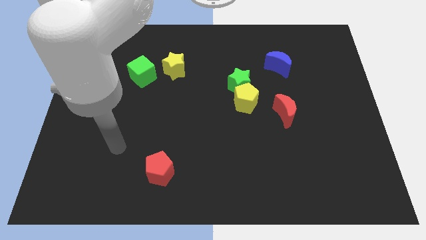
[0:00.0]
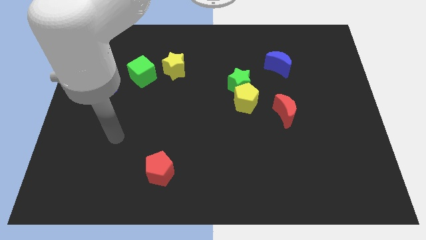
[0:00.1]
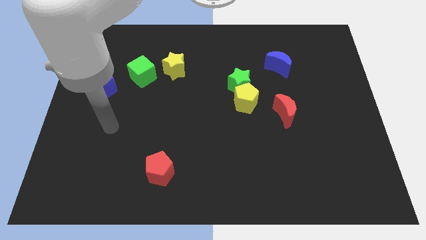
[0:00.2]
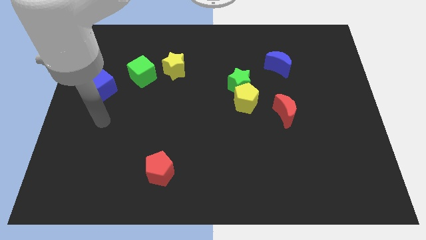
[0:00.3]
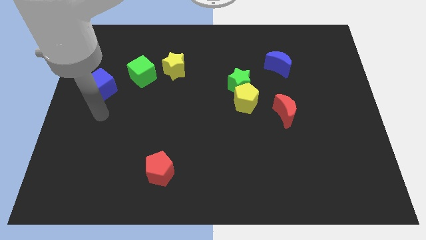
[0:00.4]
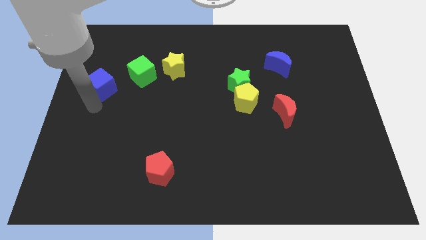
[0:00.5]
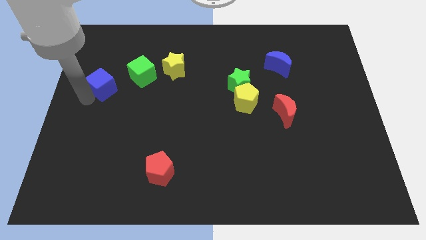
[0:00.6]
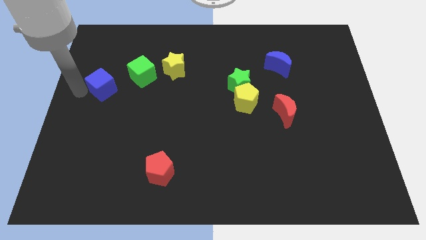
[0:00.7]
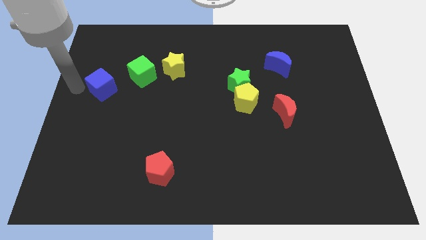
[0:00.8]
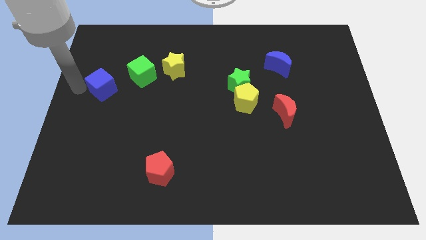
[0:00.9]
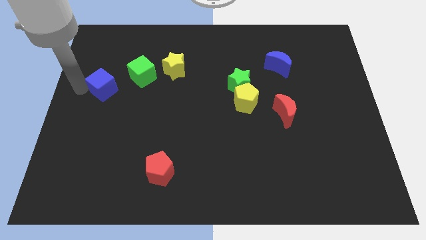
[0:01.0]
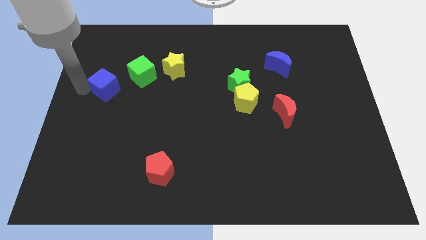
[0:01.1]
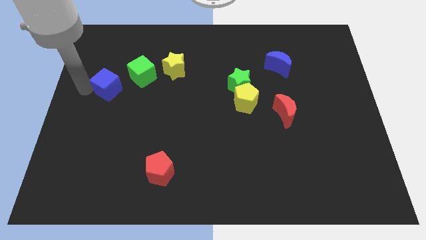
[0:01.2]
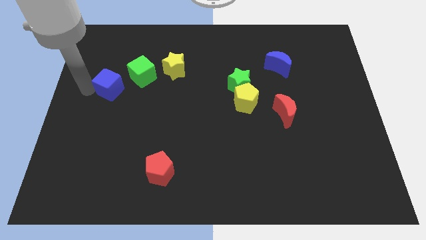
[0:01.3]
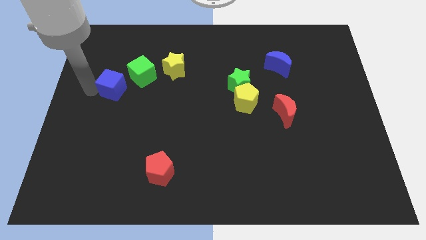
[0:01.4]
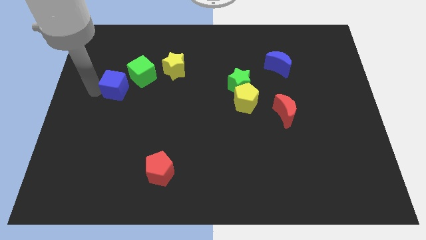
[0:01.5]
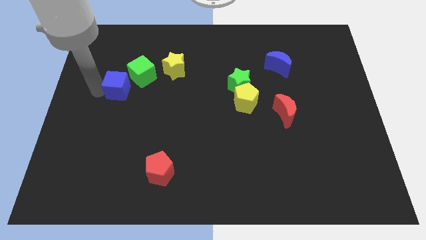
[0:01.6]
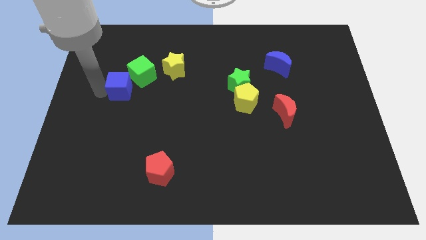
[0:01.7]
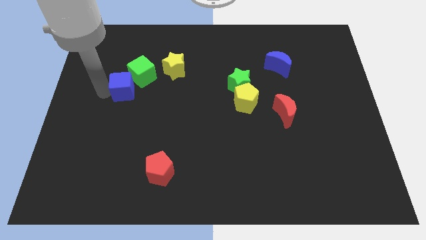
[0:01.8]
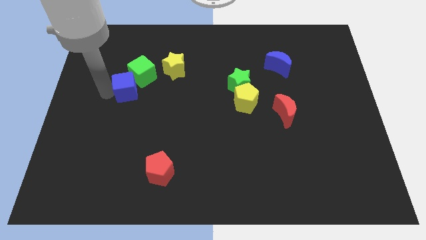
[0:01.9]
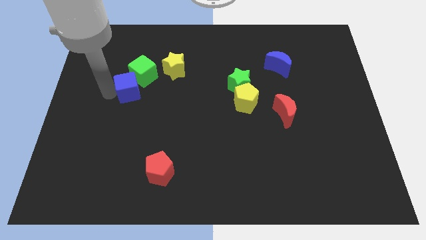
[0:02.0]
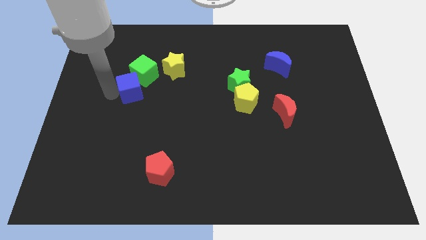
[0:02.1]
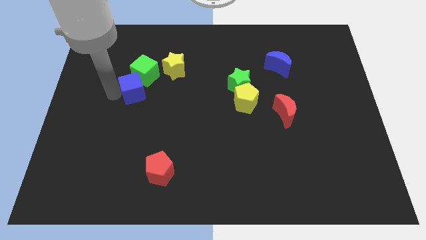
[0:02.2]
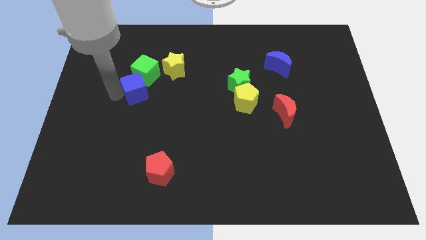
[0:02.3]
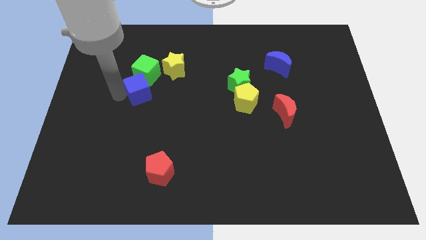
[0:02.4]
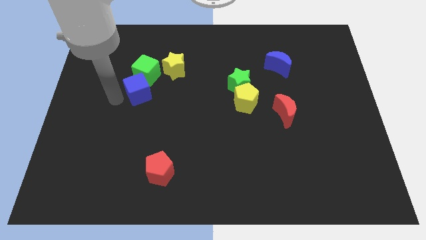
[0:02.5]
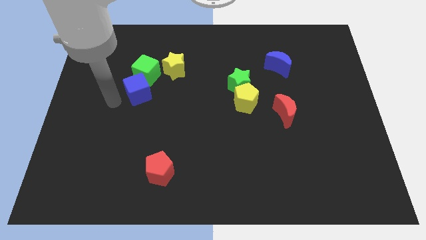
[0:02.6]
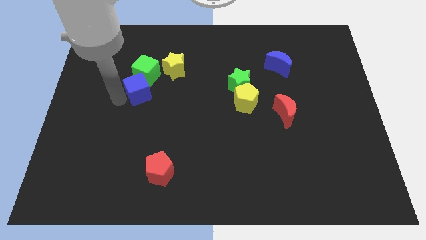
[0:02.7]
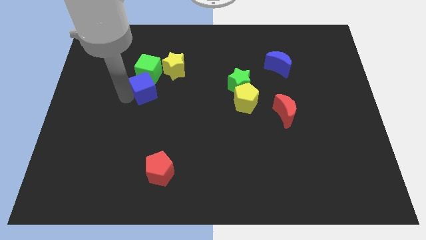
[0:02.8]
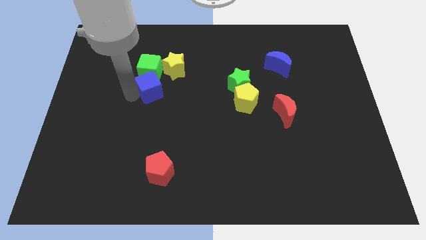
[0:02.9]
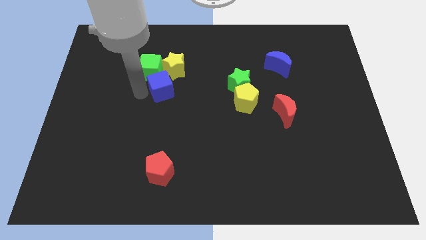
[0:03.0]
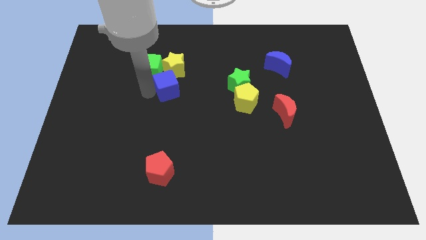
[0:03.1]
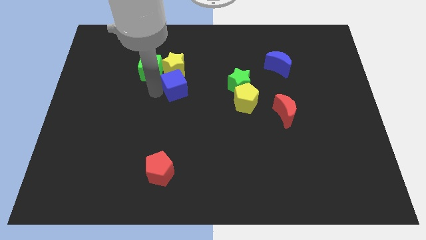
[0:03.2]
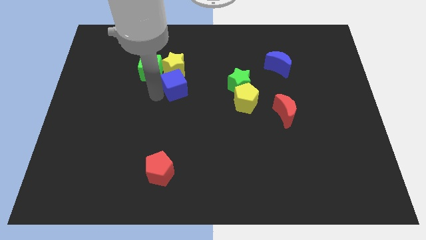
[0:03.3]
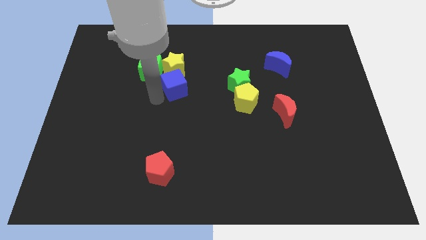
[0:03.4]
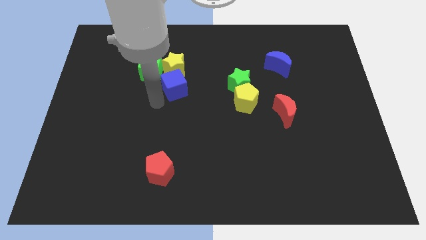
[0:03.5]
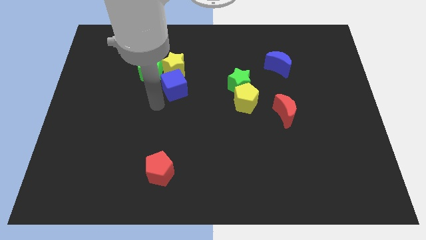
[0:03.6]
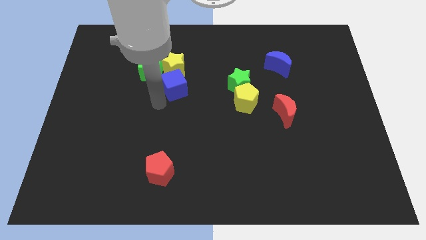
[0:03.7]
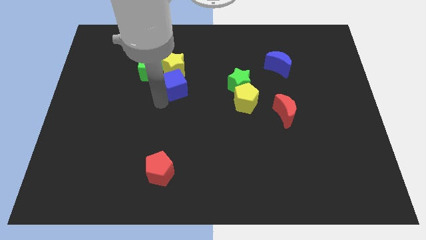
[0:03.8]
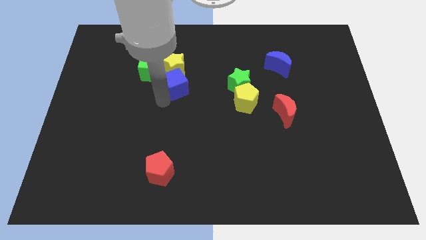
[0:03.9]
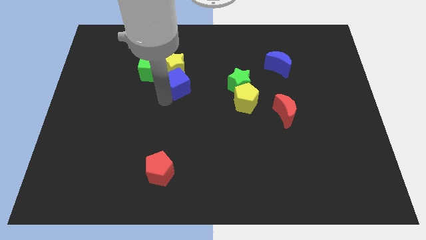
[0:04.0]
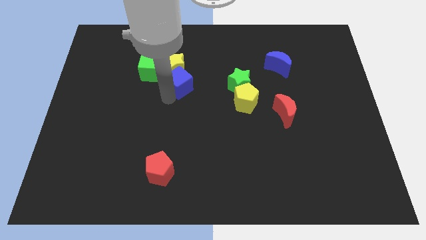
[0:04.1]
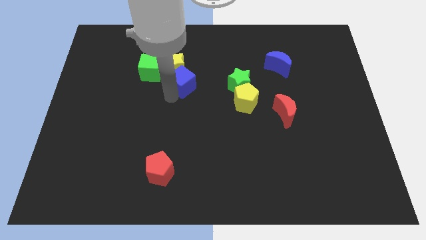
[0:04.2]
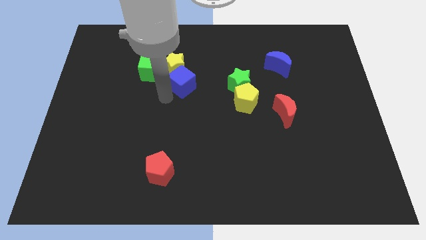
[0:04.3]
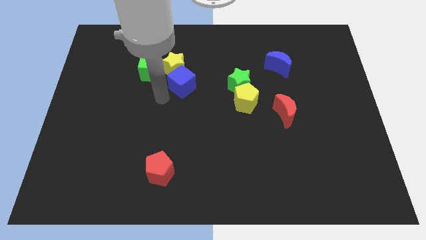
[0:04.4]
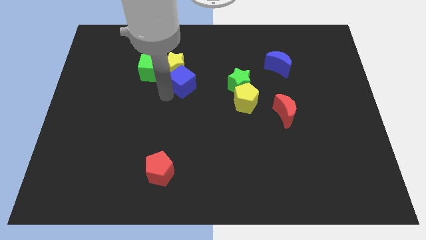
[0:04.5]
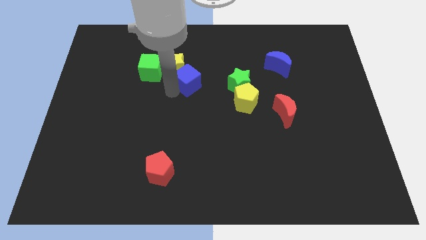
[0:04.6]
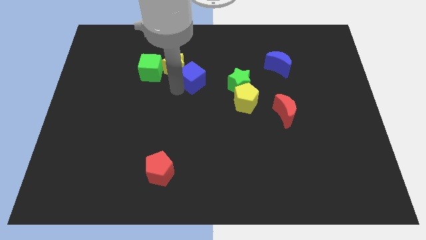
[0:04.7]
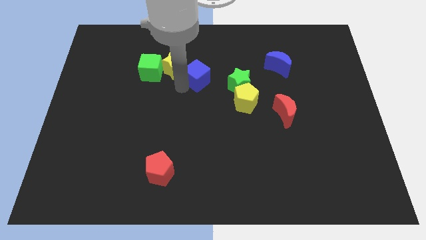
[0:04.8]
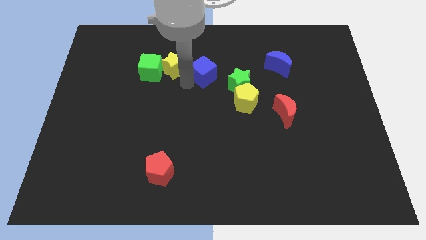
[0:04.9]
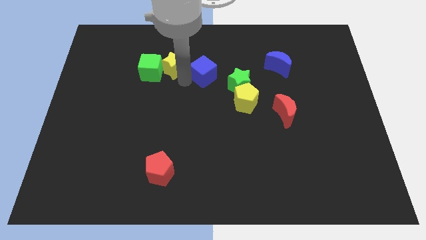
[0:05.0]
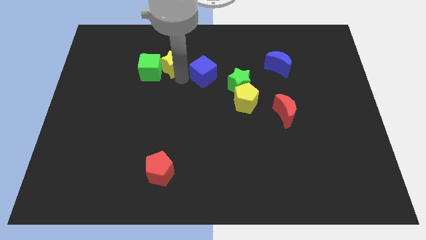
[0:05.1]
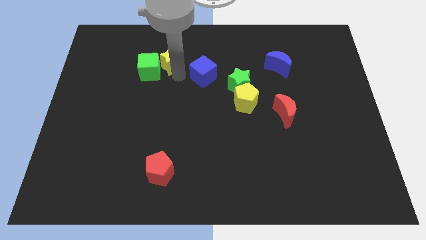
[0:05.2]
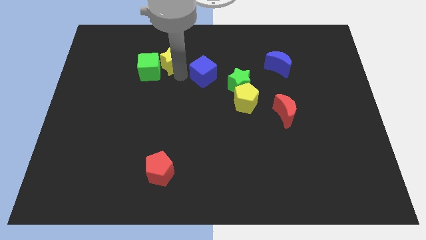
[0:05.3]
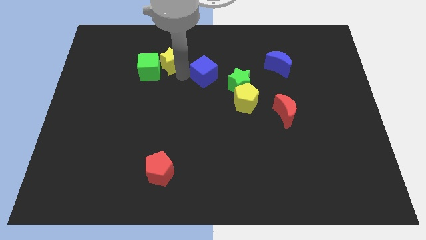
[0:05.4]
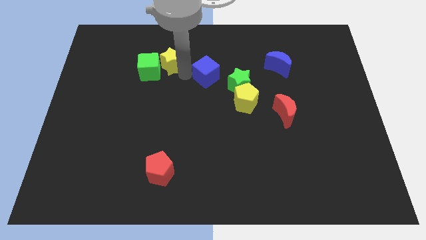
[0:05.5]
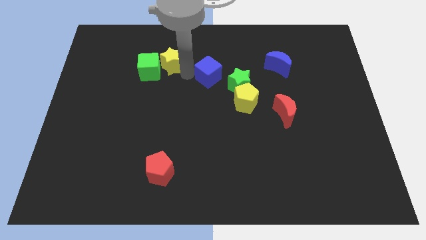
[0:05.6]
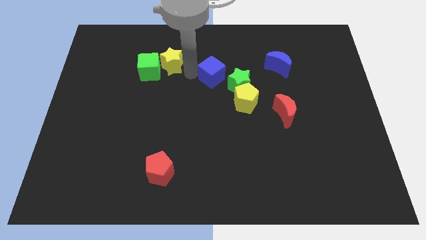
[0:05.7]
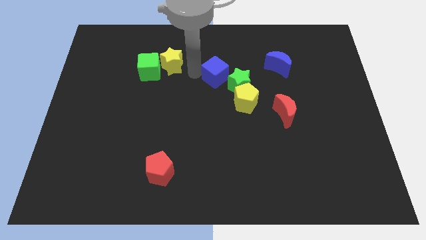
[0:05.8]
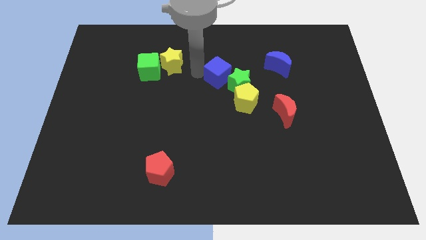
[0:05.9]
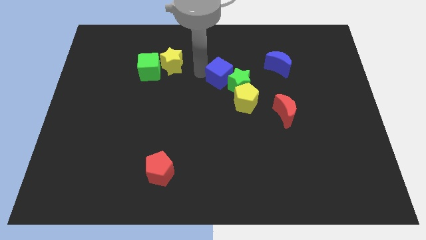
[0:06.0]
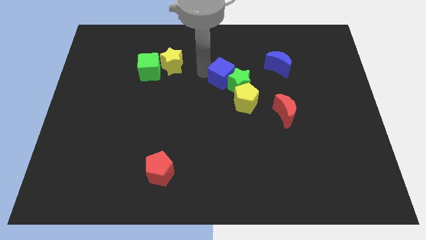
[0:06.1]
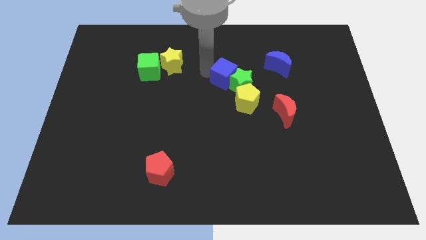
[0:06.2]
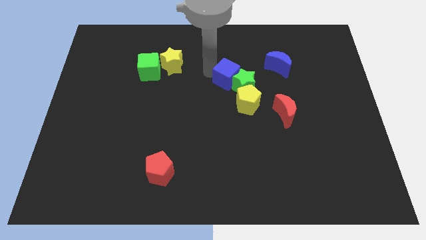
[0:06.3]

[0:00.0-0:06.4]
move the blue cube above the yellow pentagon

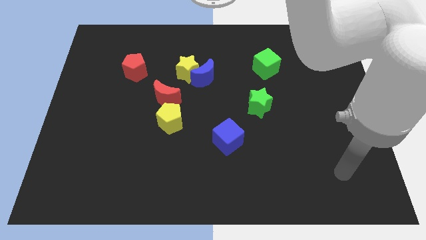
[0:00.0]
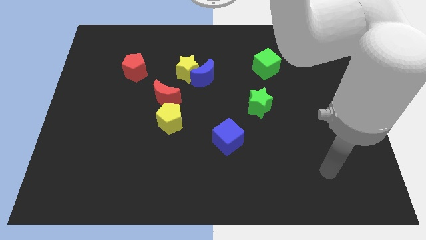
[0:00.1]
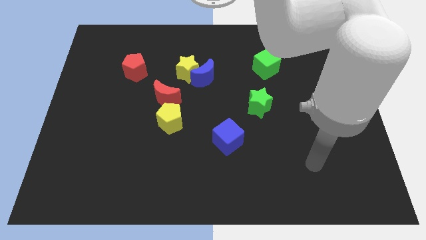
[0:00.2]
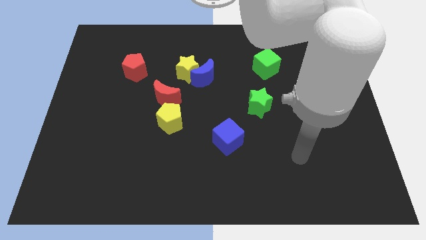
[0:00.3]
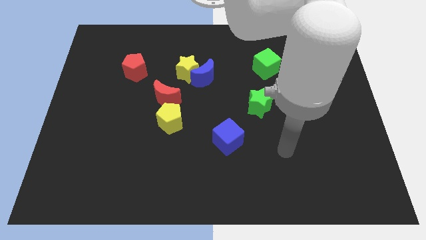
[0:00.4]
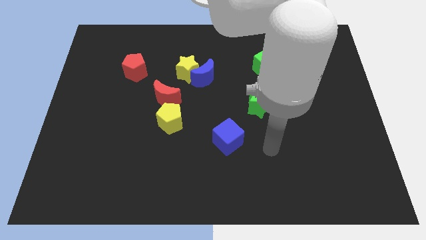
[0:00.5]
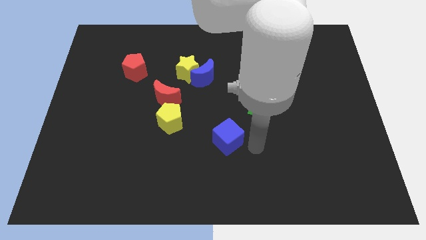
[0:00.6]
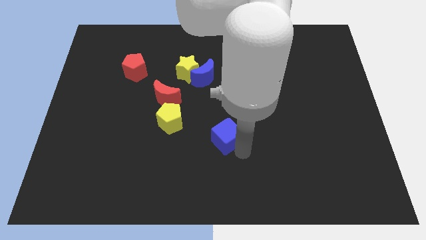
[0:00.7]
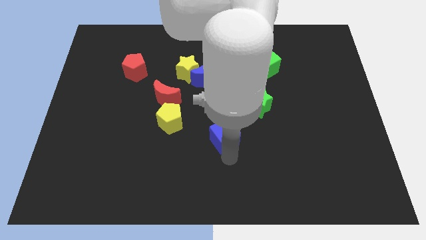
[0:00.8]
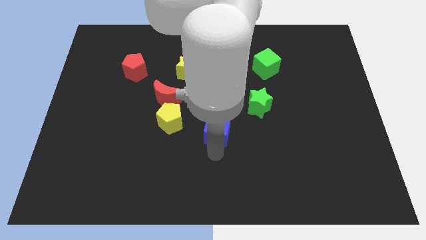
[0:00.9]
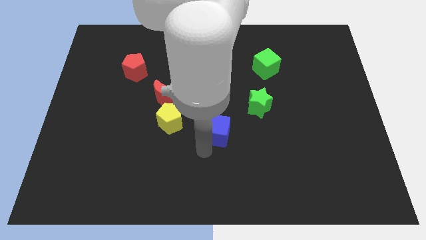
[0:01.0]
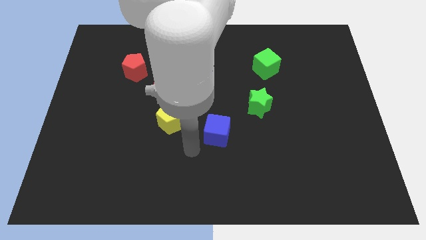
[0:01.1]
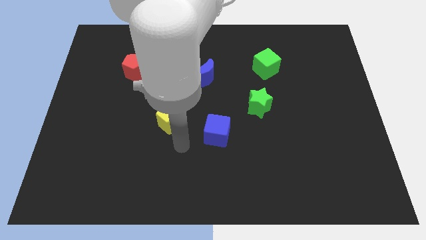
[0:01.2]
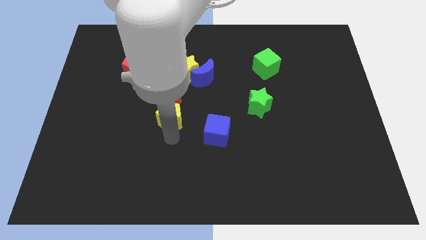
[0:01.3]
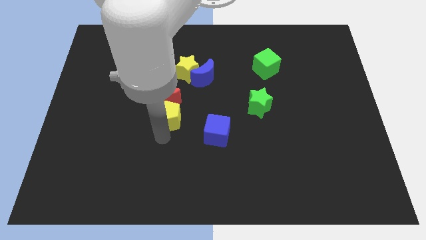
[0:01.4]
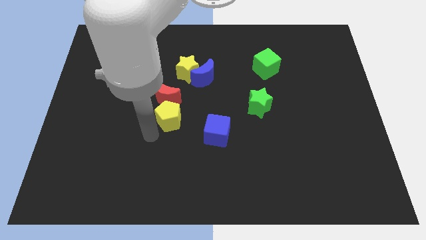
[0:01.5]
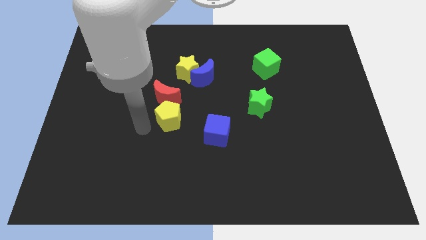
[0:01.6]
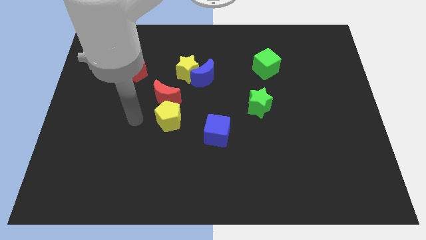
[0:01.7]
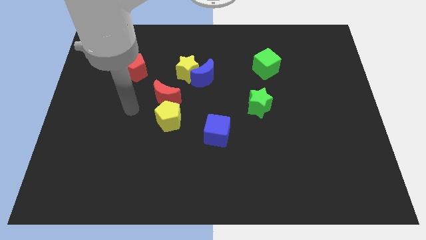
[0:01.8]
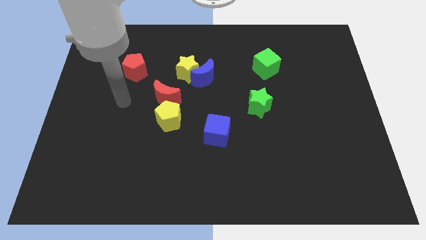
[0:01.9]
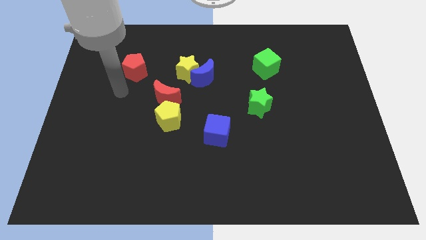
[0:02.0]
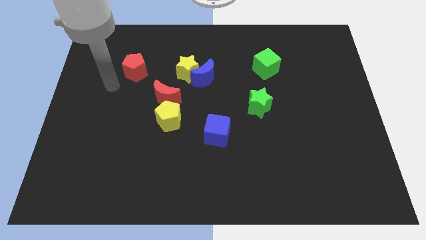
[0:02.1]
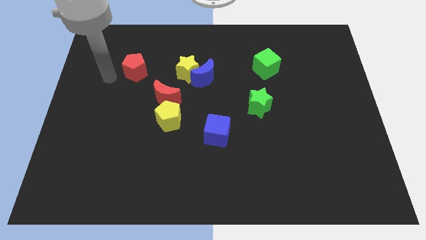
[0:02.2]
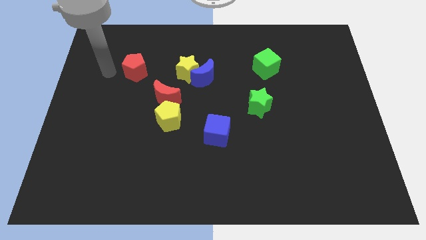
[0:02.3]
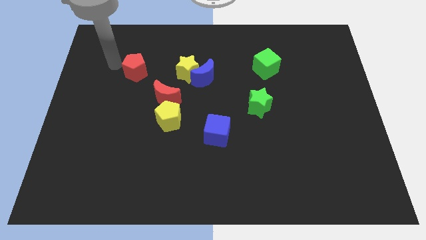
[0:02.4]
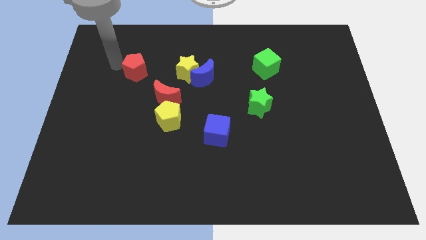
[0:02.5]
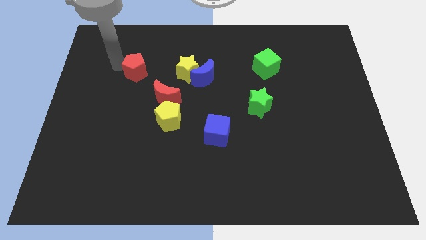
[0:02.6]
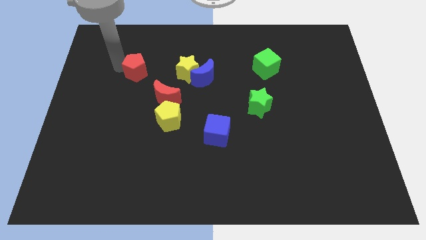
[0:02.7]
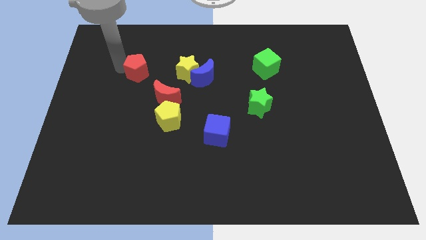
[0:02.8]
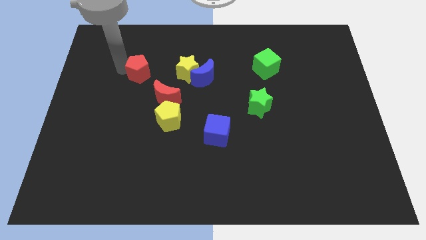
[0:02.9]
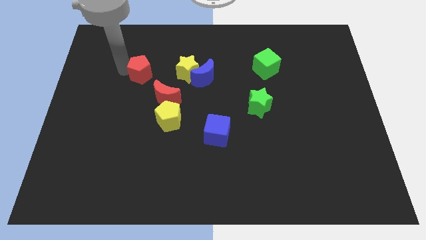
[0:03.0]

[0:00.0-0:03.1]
move the red pentagon to the left of the blue moon
